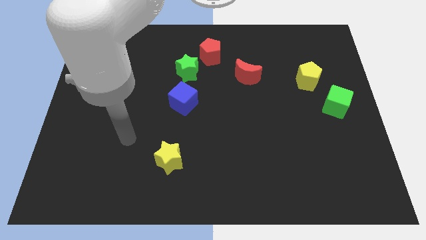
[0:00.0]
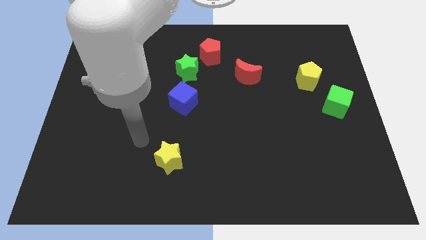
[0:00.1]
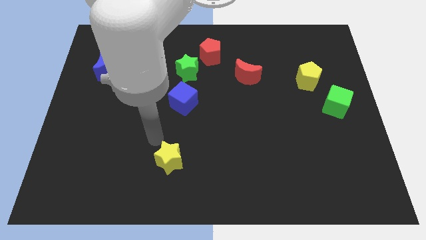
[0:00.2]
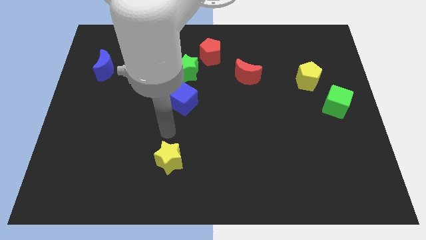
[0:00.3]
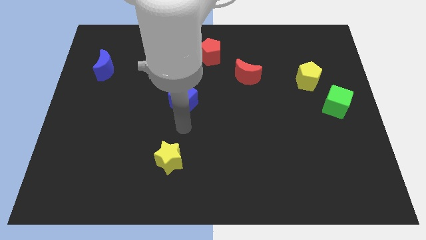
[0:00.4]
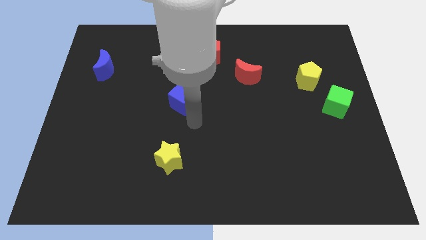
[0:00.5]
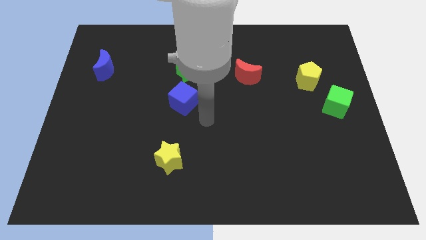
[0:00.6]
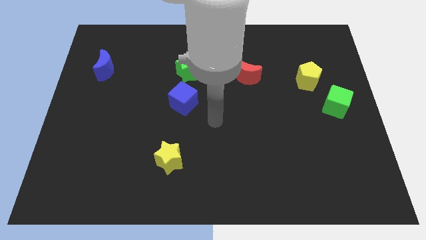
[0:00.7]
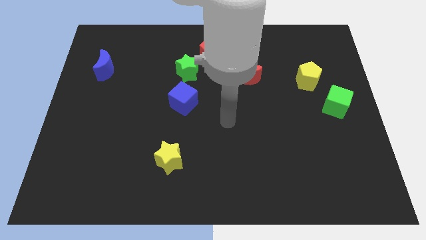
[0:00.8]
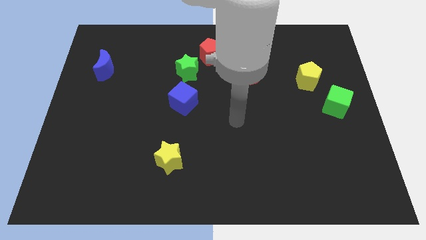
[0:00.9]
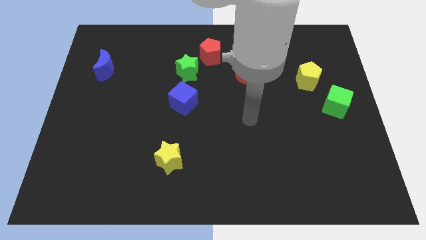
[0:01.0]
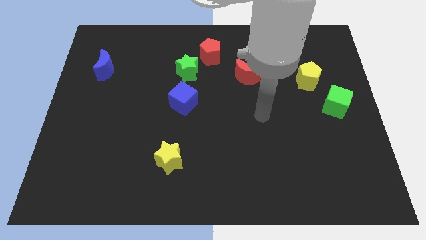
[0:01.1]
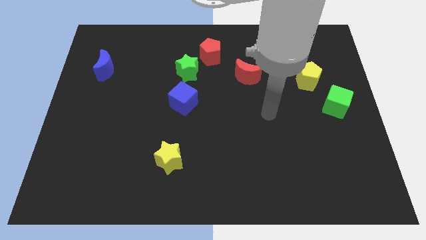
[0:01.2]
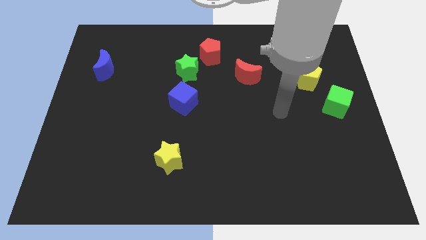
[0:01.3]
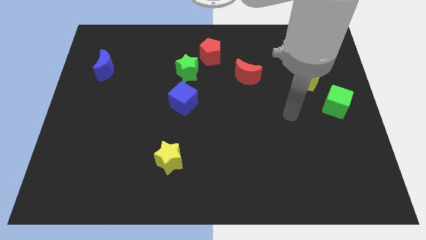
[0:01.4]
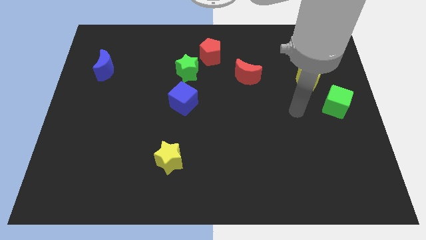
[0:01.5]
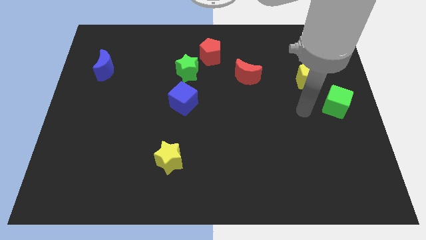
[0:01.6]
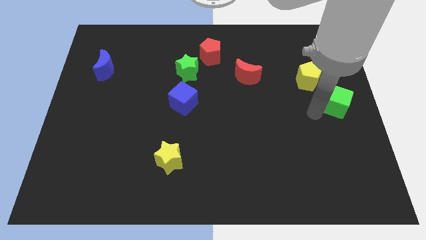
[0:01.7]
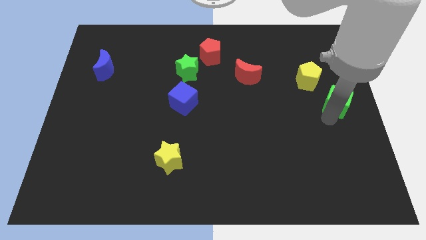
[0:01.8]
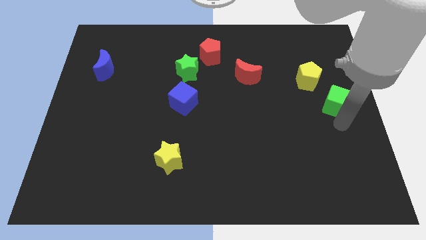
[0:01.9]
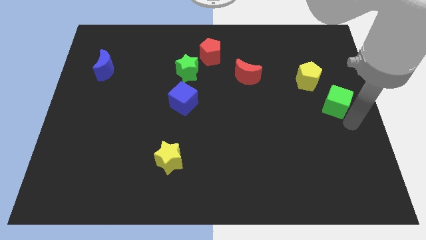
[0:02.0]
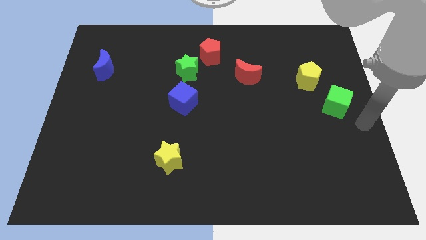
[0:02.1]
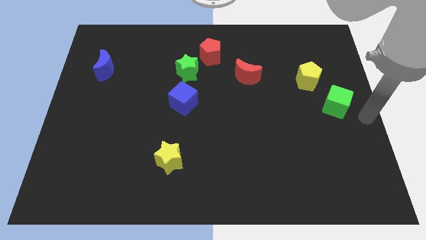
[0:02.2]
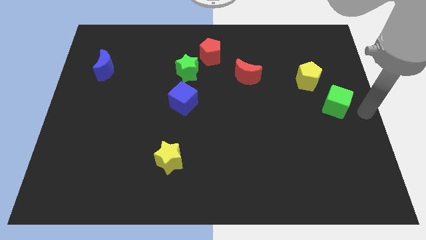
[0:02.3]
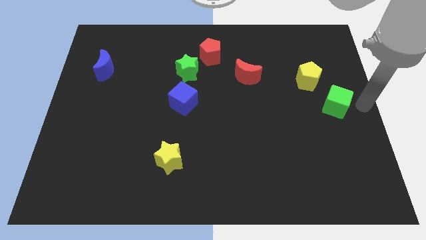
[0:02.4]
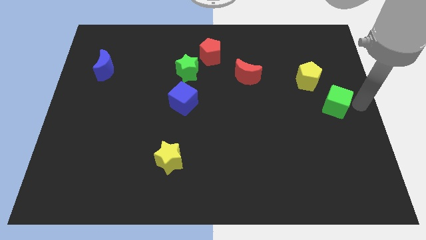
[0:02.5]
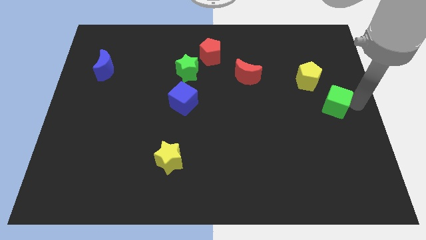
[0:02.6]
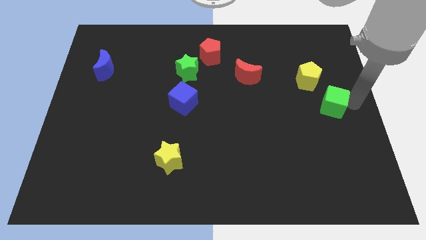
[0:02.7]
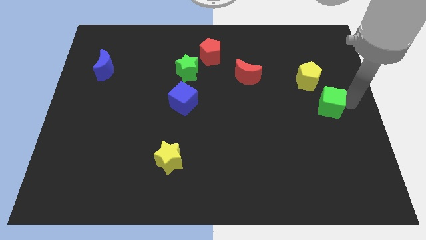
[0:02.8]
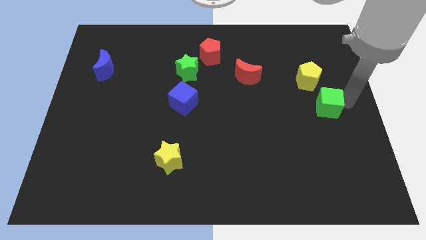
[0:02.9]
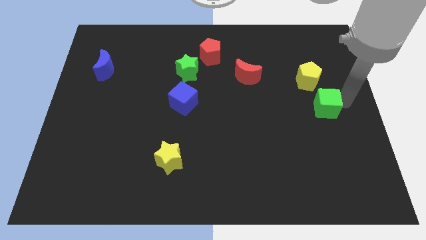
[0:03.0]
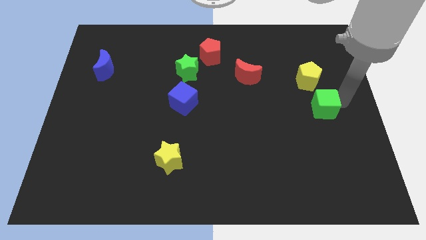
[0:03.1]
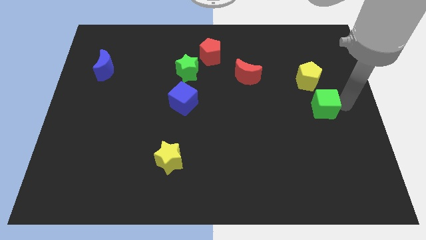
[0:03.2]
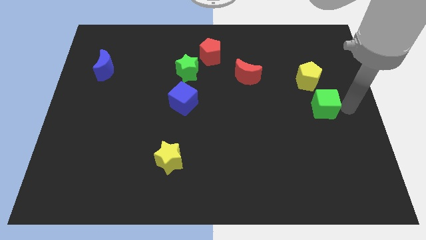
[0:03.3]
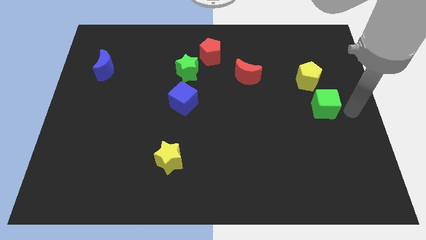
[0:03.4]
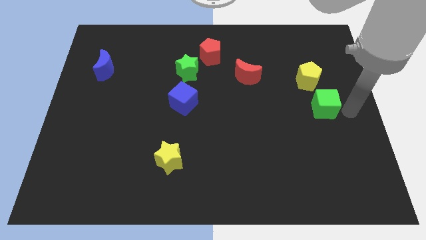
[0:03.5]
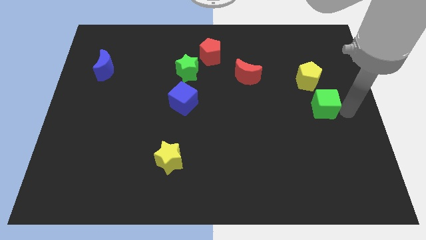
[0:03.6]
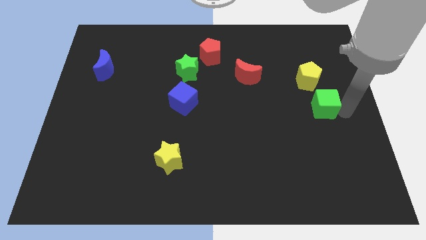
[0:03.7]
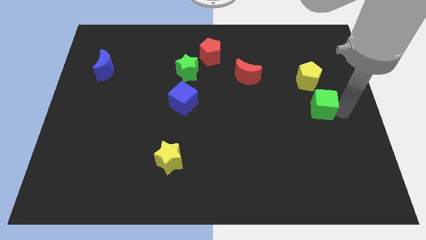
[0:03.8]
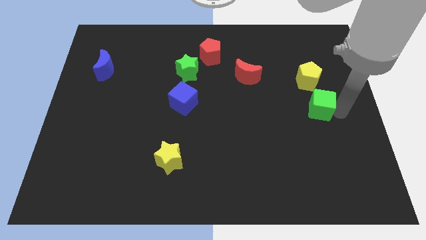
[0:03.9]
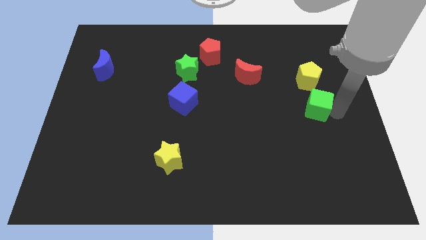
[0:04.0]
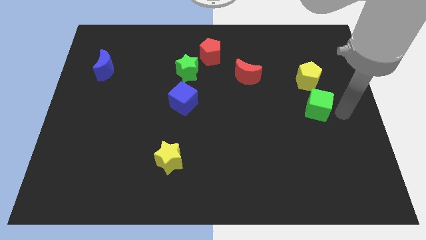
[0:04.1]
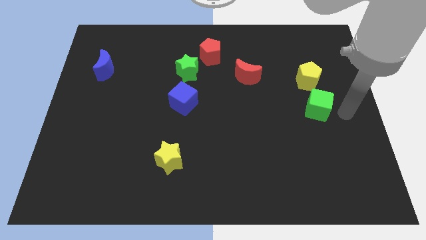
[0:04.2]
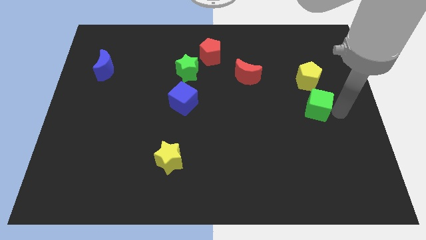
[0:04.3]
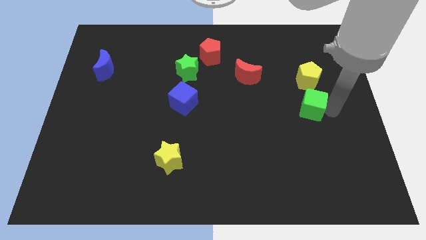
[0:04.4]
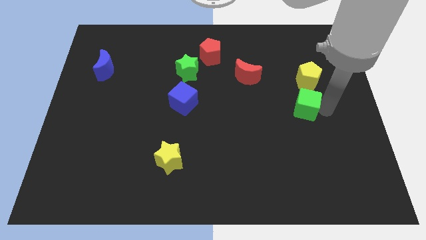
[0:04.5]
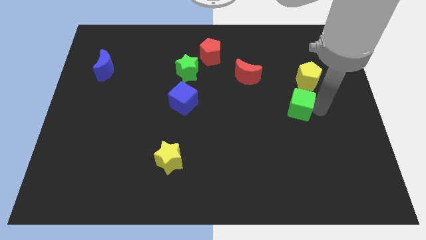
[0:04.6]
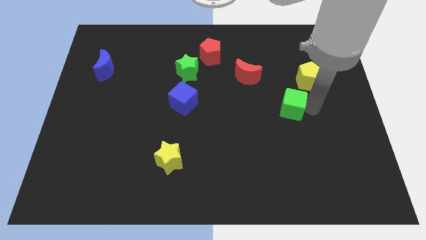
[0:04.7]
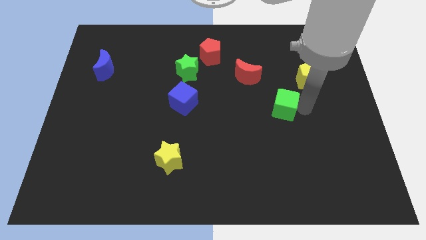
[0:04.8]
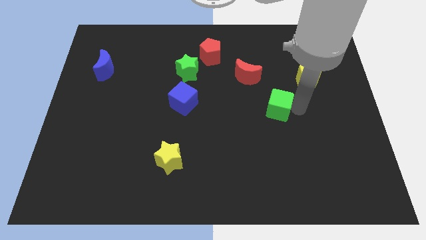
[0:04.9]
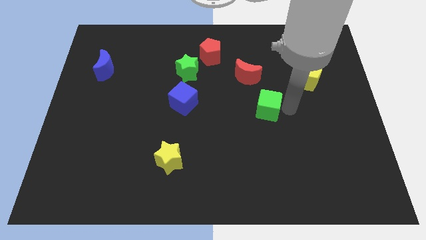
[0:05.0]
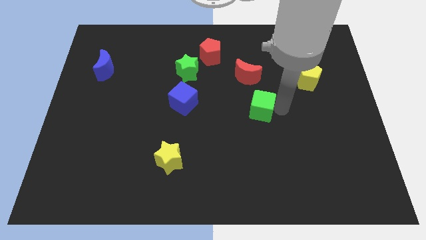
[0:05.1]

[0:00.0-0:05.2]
push the green cube to the center of the board

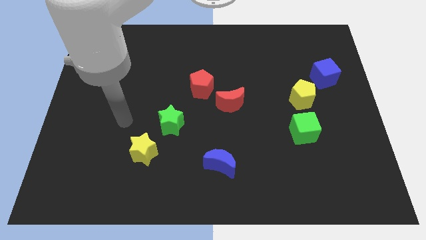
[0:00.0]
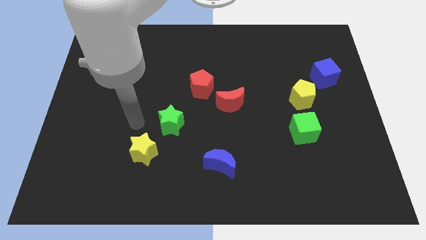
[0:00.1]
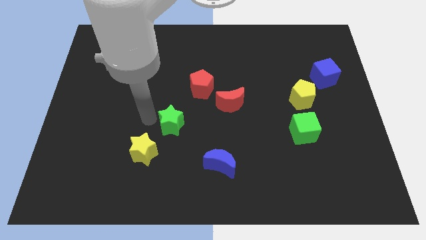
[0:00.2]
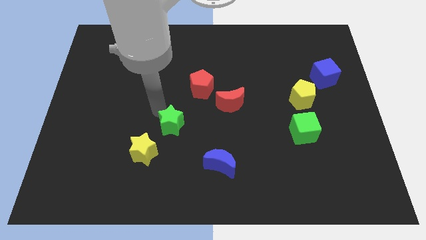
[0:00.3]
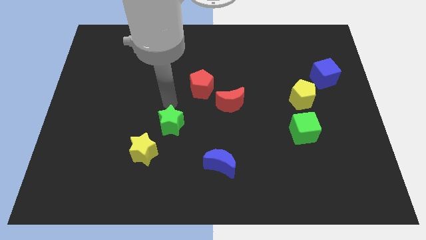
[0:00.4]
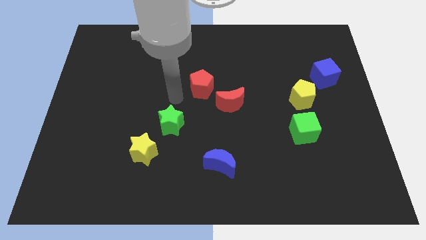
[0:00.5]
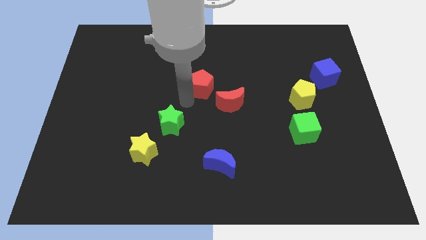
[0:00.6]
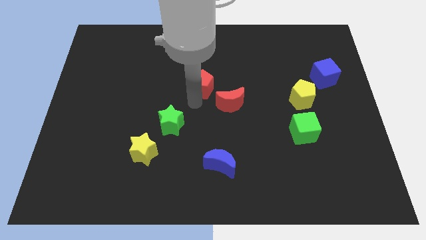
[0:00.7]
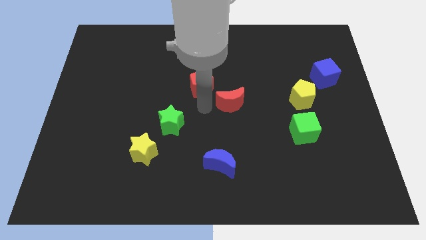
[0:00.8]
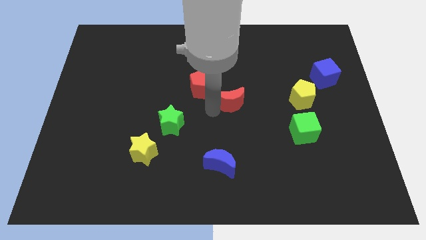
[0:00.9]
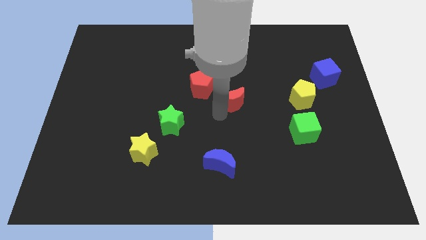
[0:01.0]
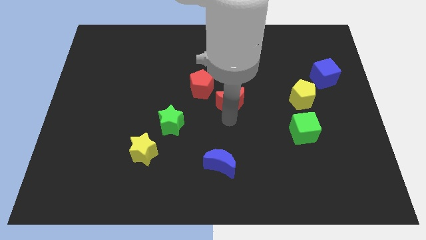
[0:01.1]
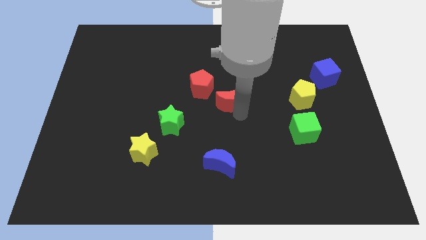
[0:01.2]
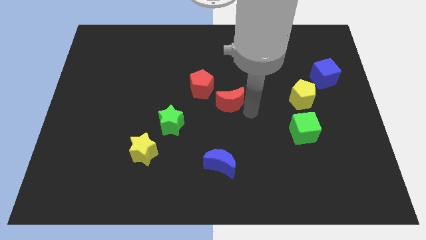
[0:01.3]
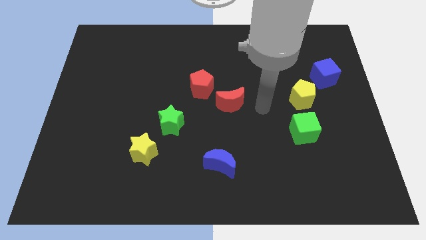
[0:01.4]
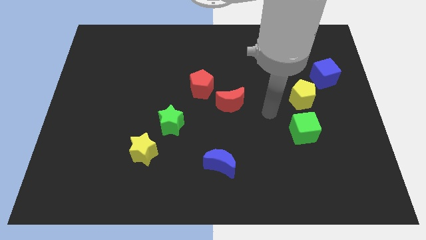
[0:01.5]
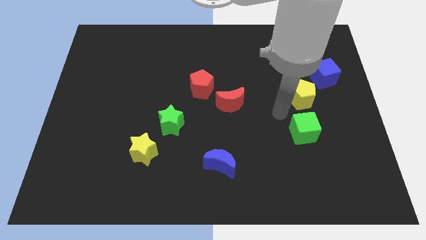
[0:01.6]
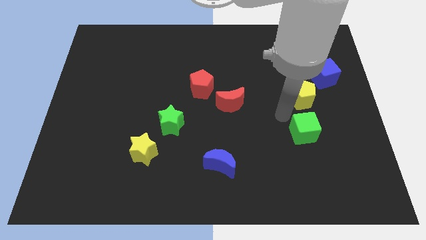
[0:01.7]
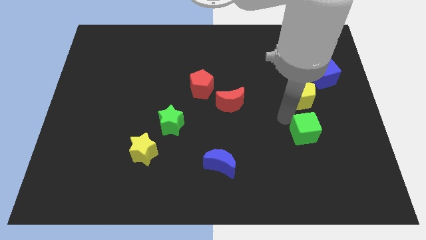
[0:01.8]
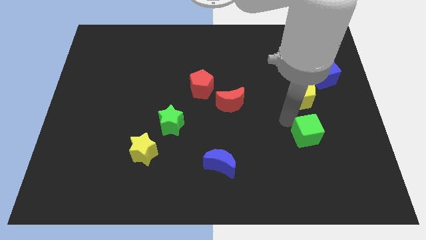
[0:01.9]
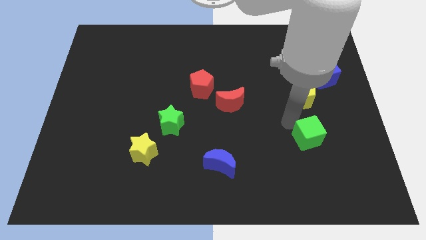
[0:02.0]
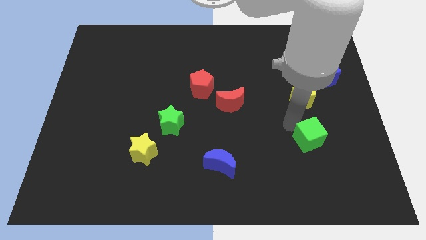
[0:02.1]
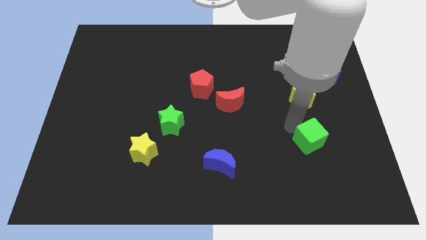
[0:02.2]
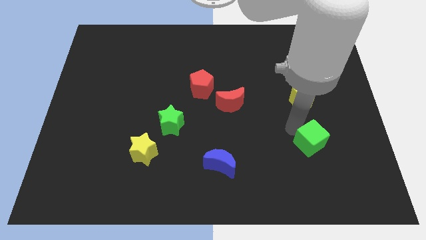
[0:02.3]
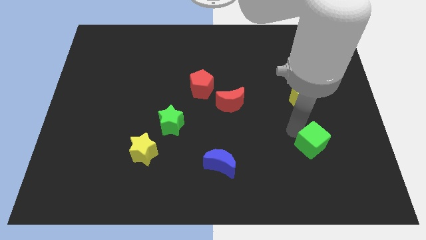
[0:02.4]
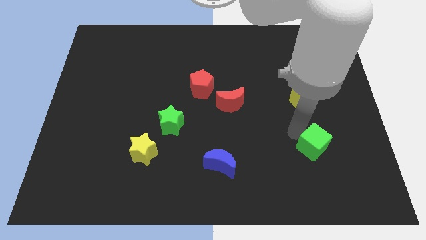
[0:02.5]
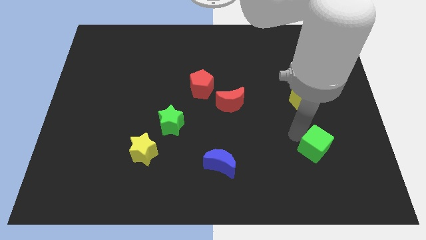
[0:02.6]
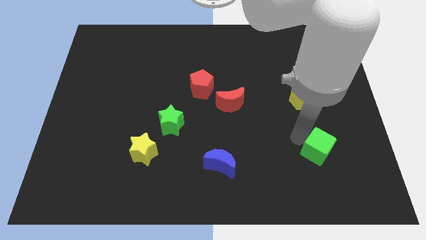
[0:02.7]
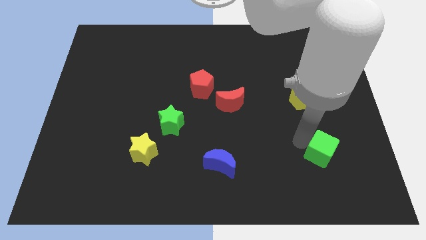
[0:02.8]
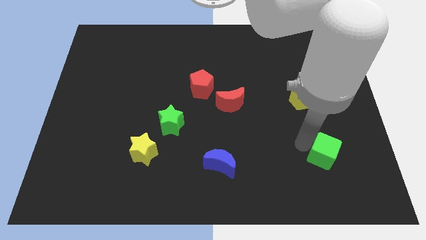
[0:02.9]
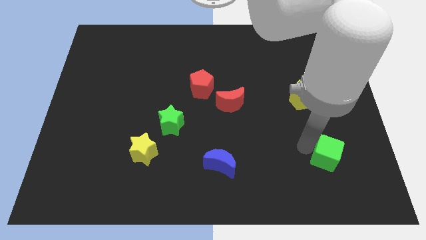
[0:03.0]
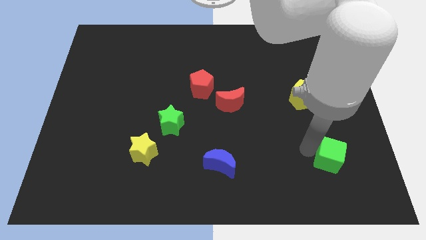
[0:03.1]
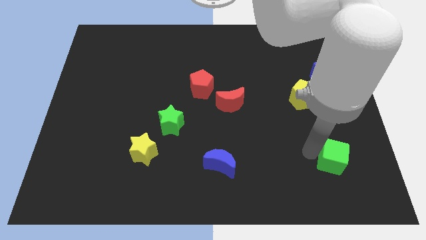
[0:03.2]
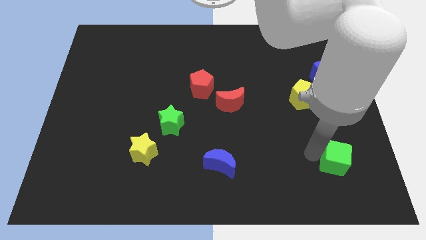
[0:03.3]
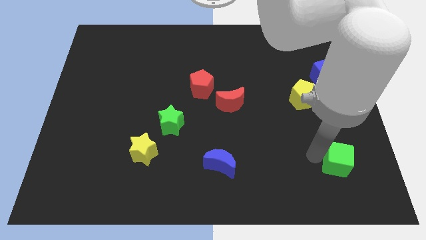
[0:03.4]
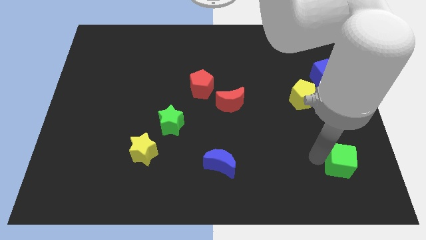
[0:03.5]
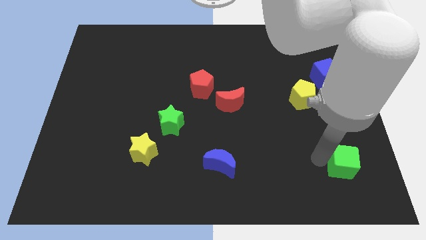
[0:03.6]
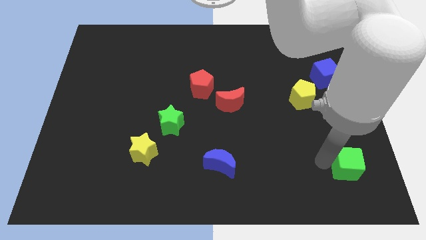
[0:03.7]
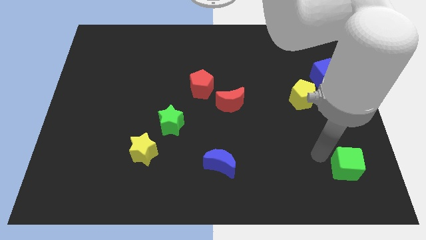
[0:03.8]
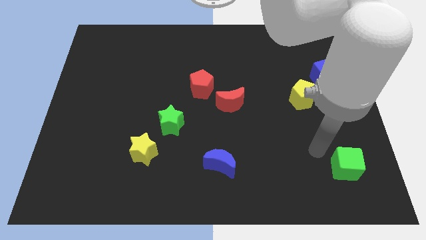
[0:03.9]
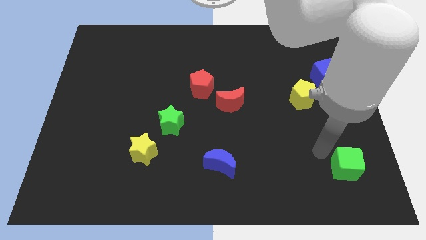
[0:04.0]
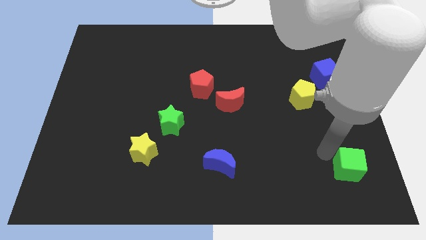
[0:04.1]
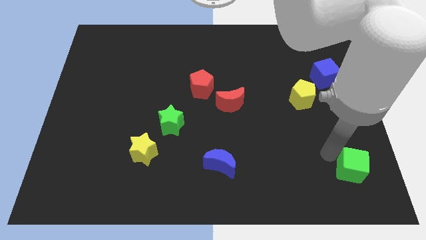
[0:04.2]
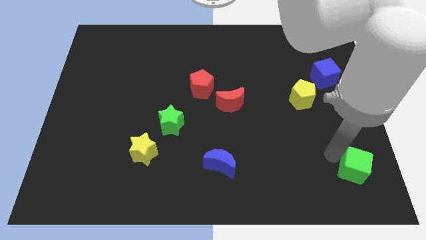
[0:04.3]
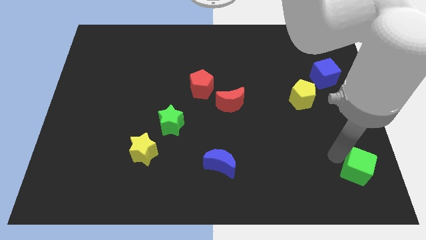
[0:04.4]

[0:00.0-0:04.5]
move the green cube to the bottom right
